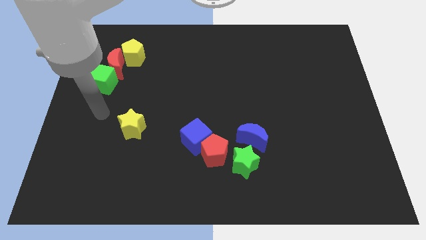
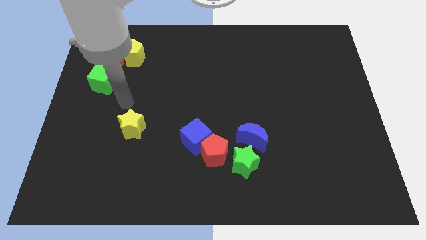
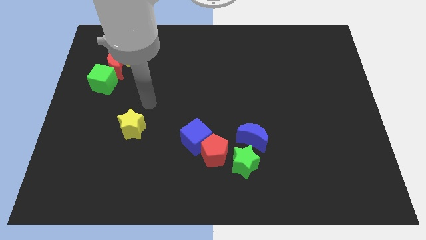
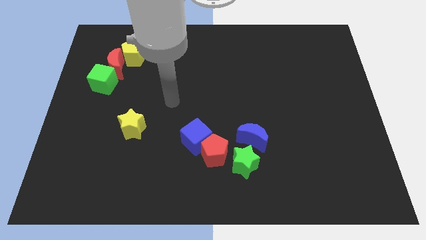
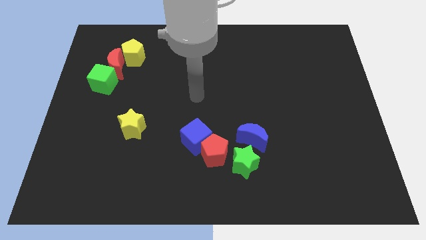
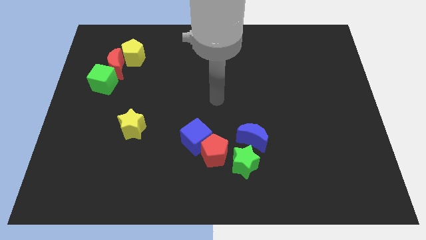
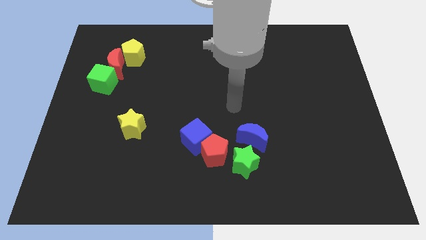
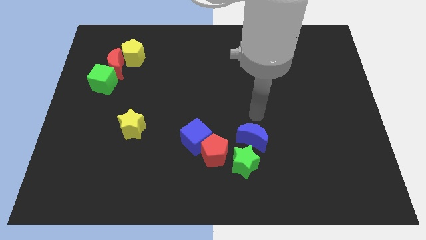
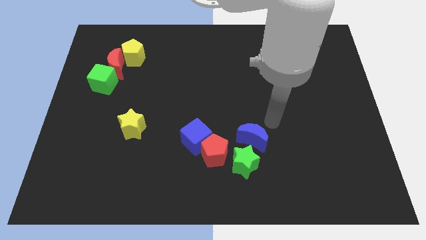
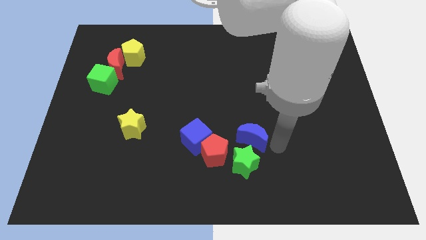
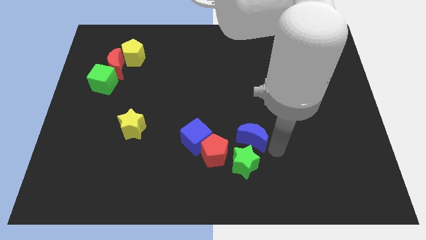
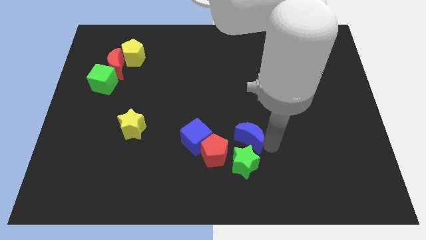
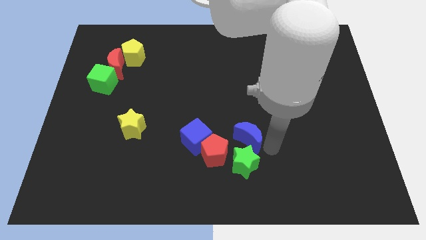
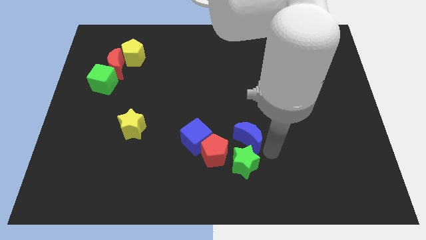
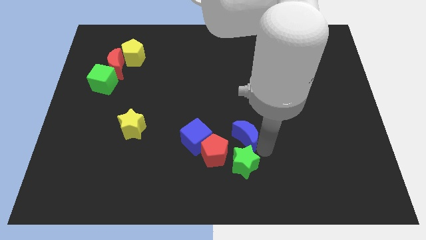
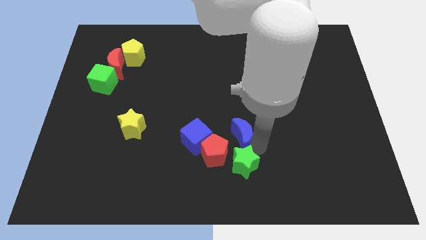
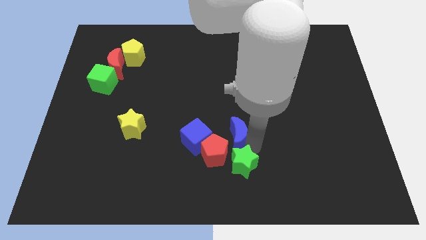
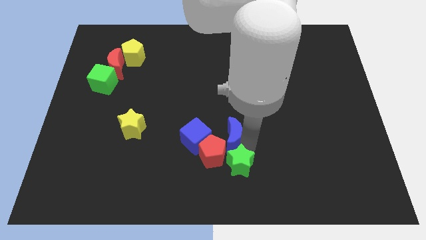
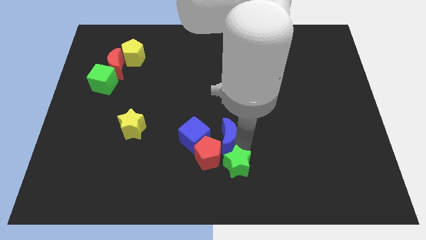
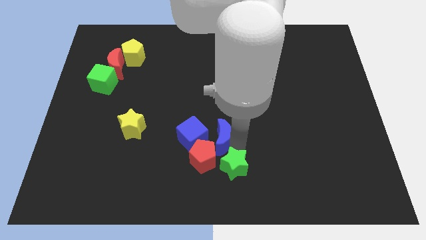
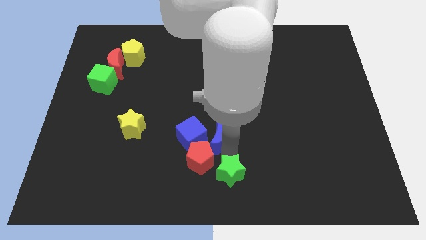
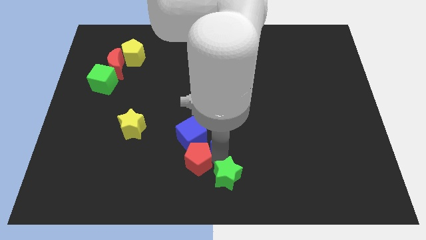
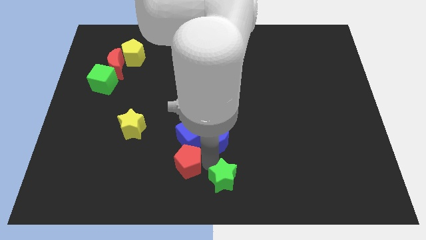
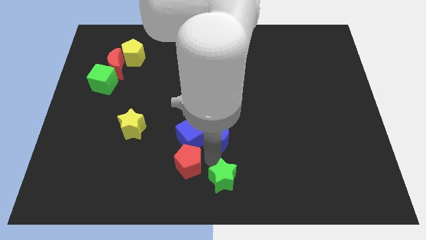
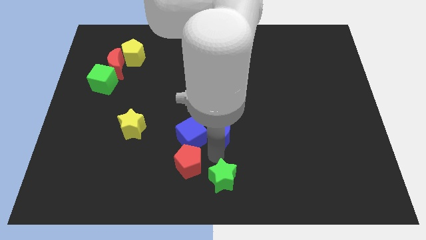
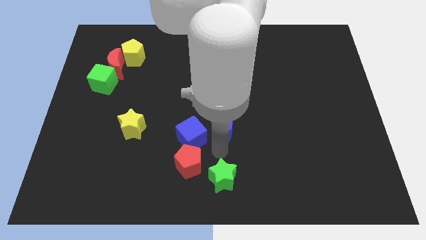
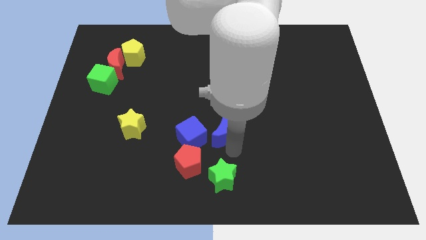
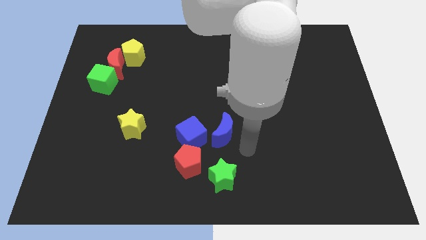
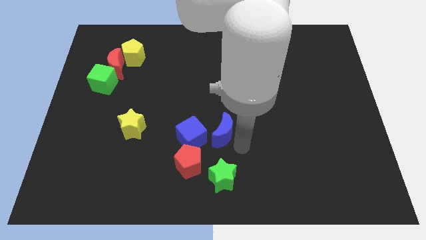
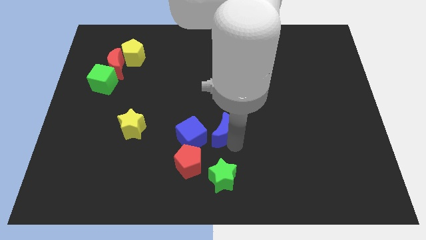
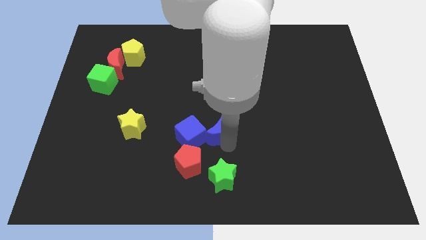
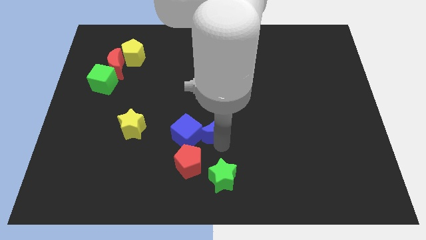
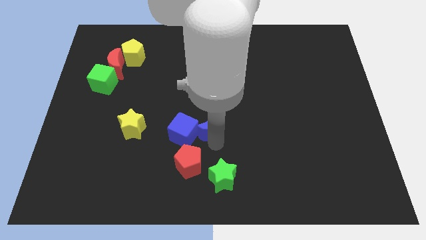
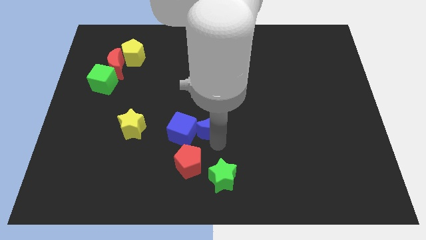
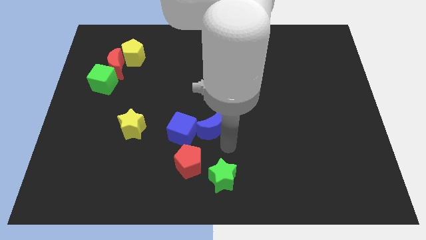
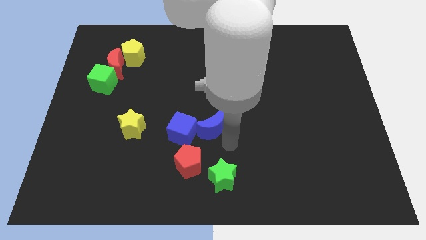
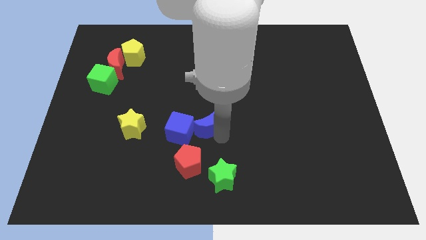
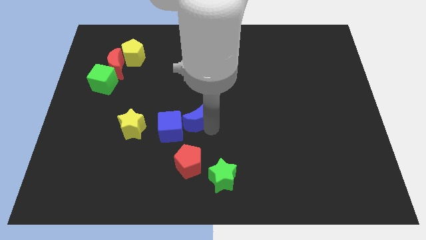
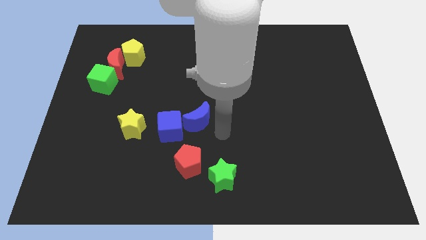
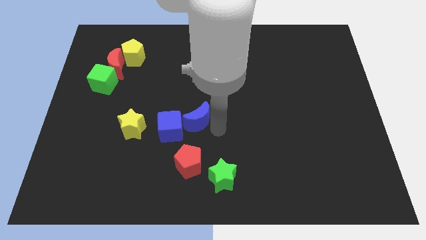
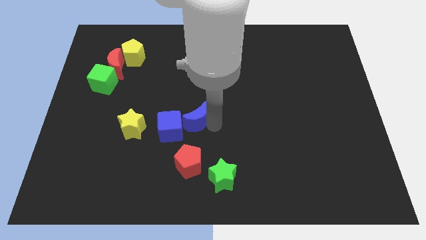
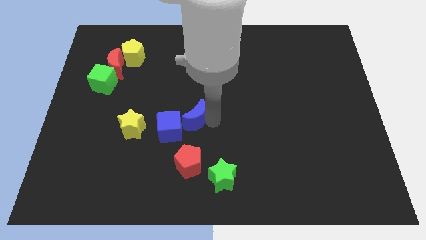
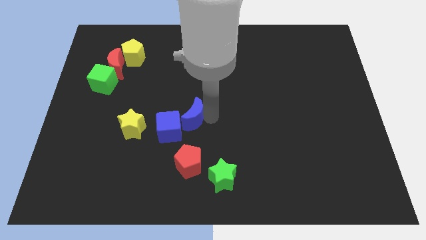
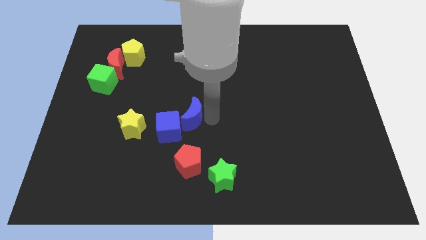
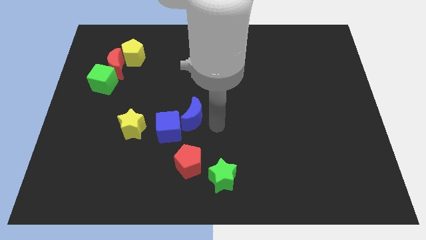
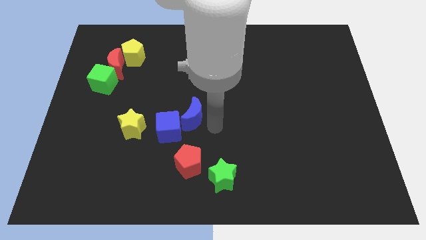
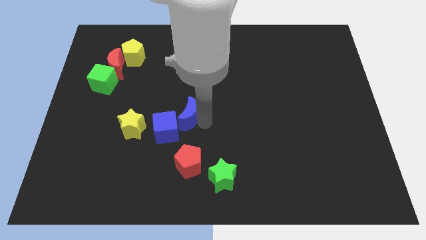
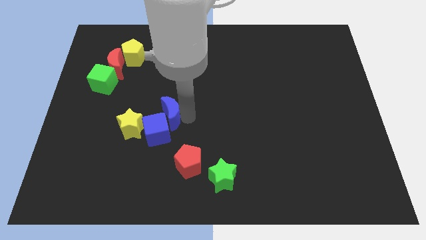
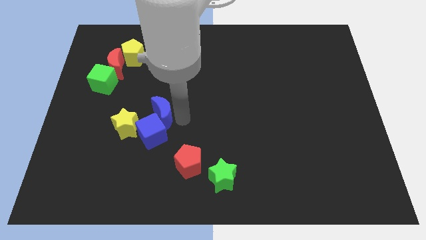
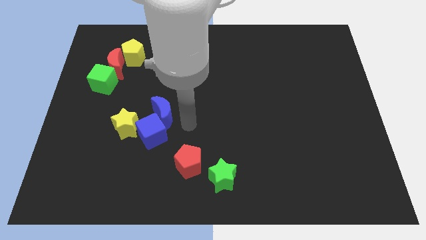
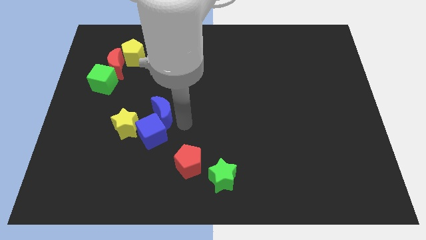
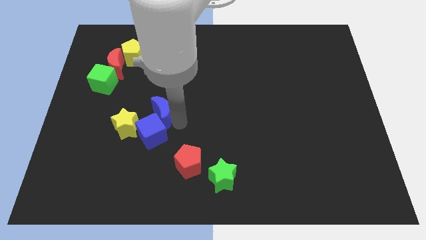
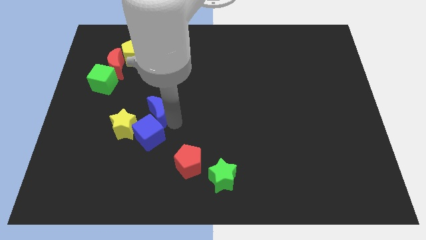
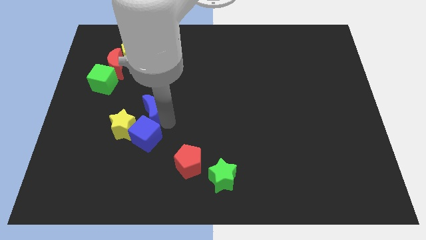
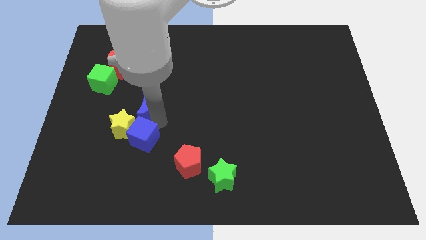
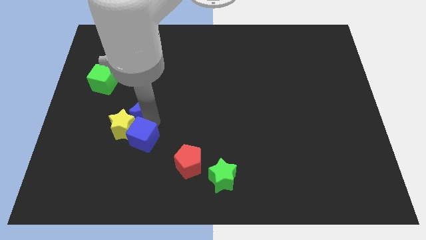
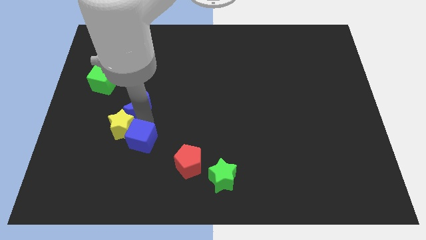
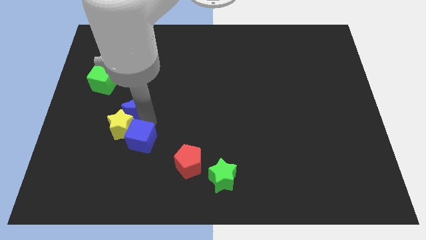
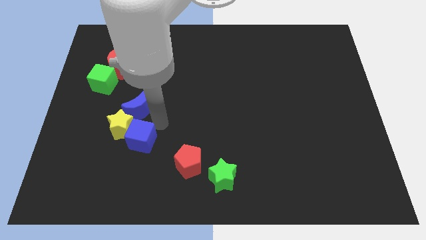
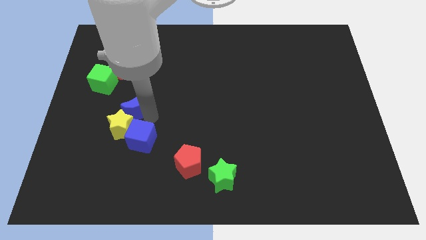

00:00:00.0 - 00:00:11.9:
push the blue moon to the bottom right of the green cube

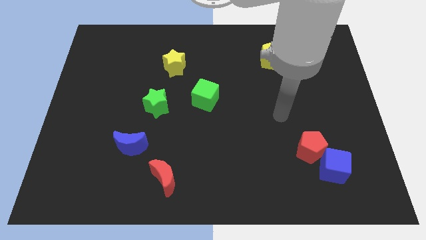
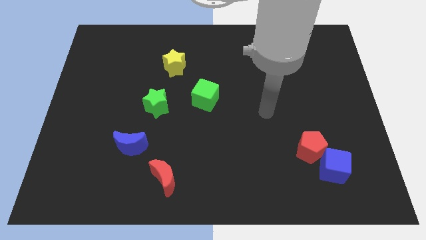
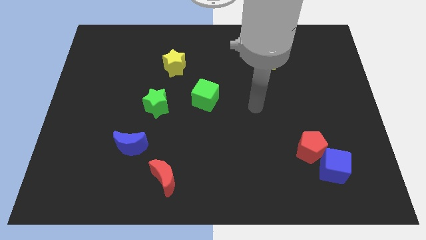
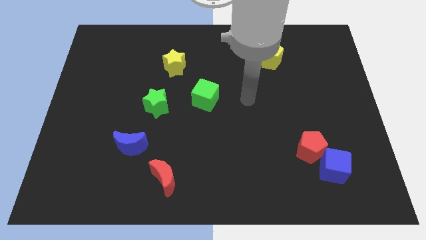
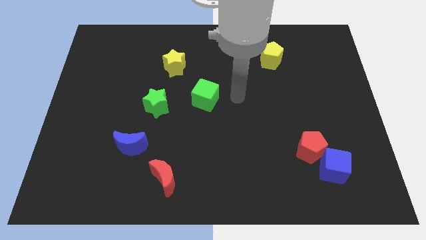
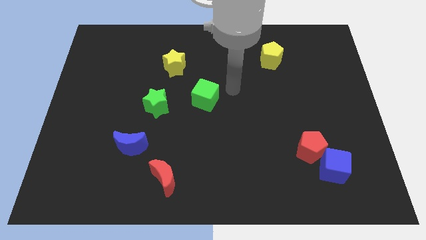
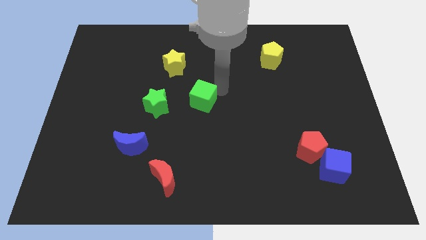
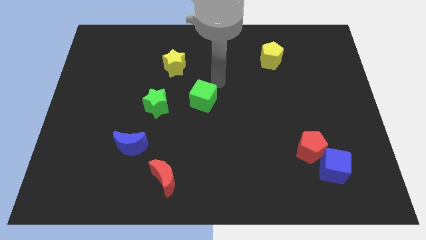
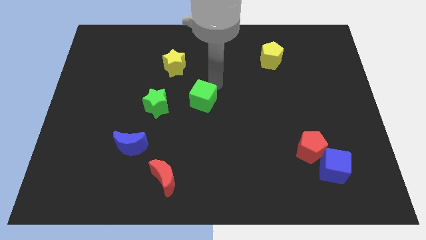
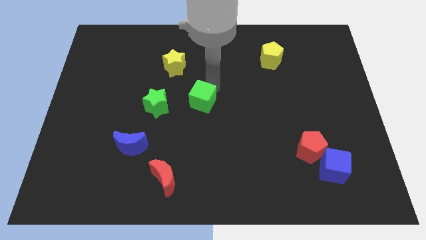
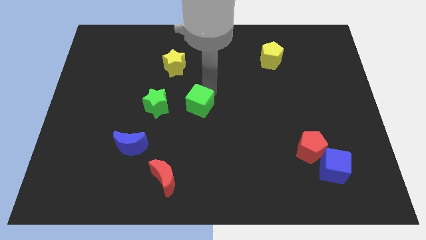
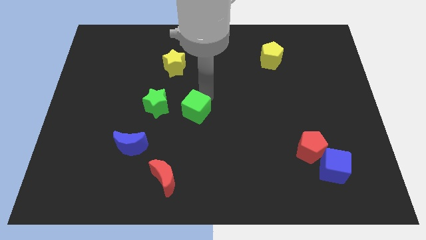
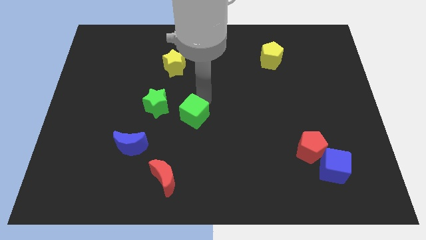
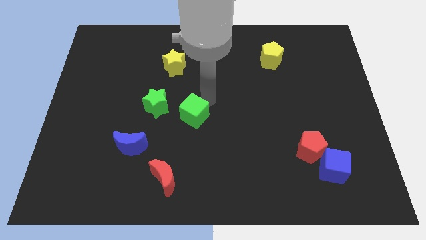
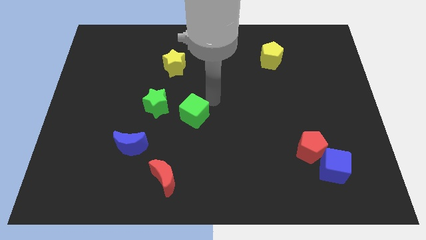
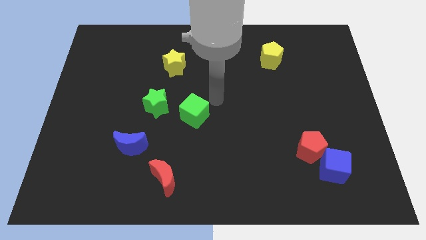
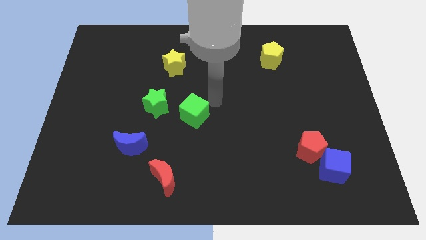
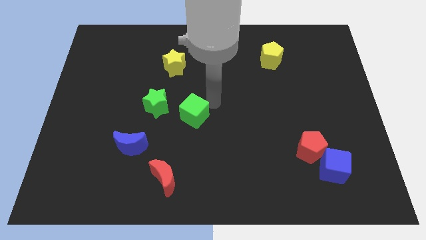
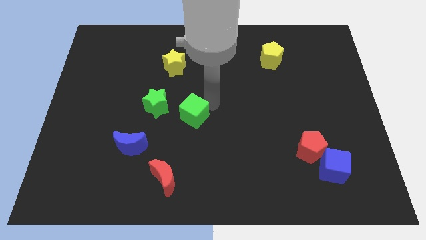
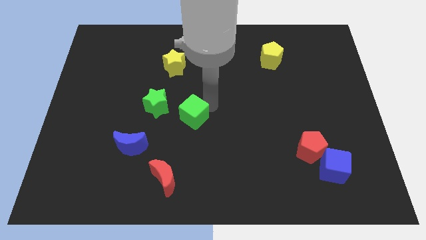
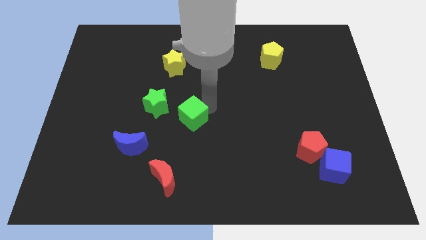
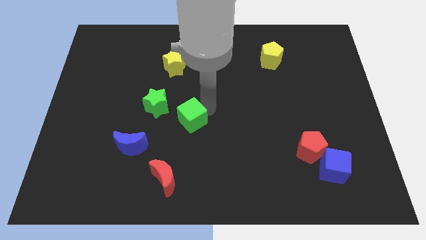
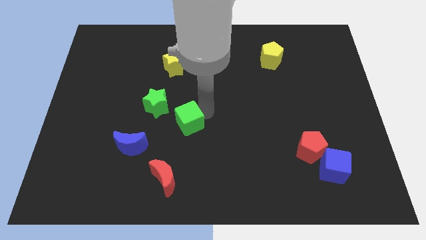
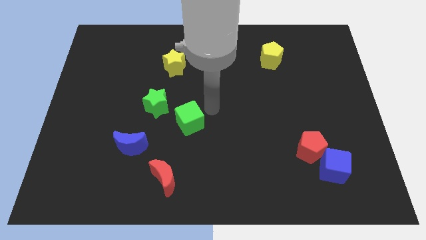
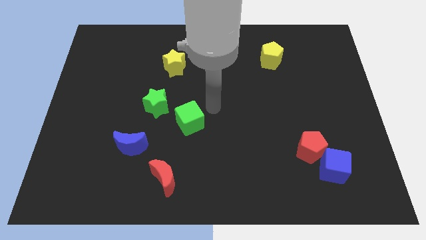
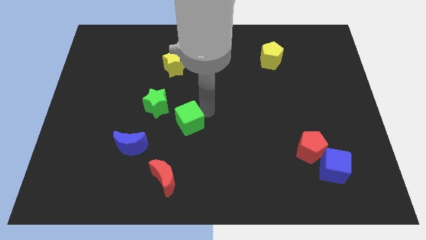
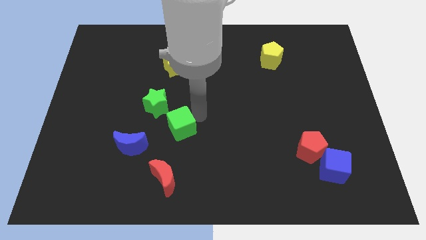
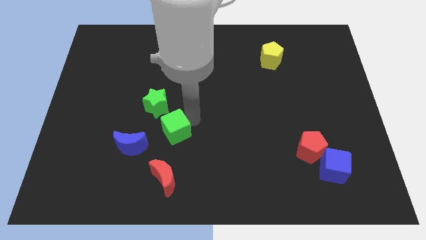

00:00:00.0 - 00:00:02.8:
slide the green cube to the bottom side of the green star
